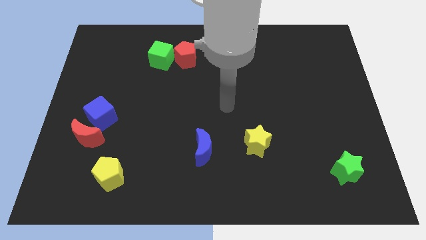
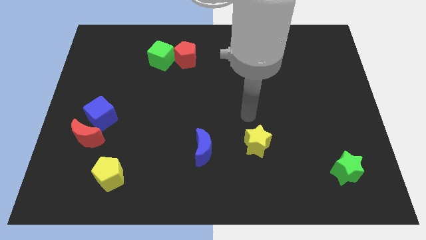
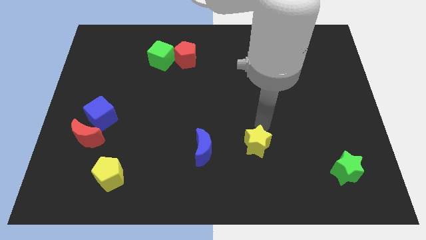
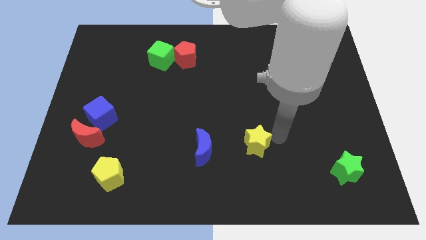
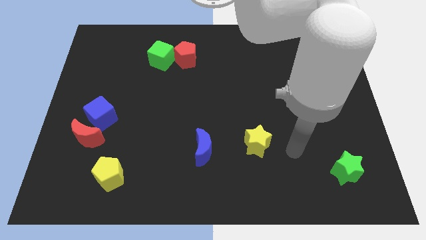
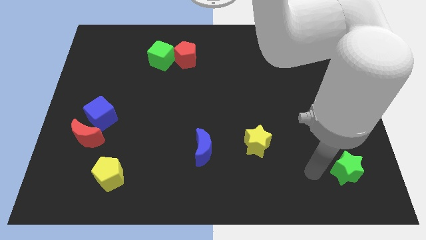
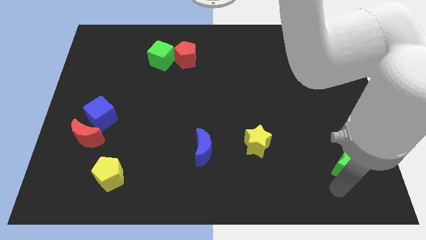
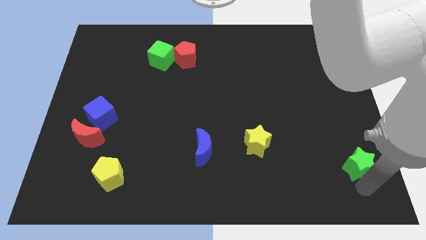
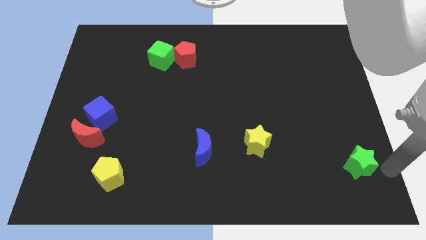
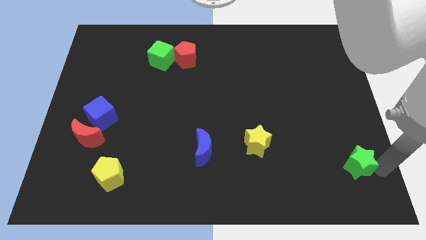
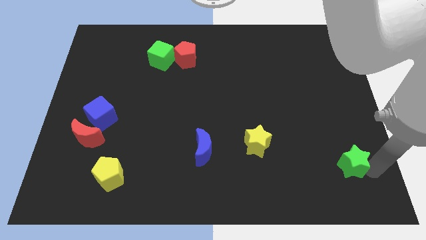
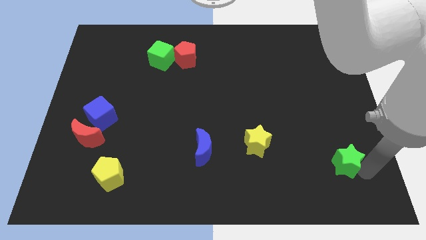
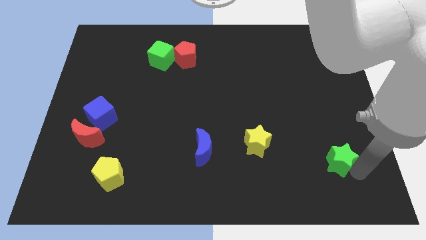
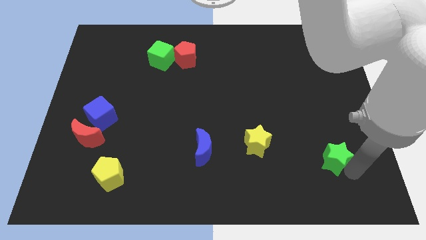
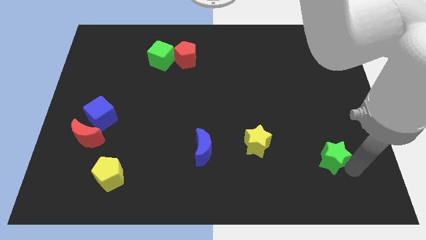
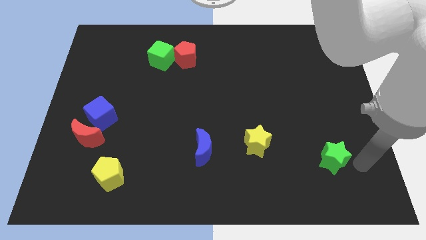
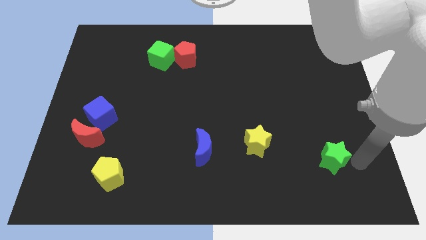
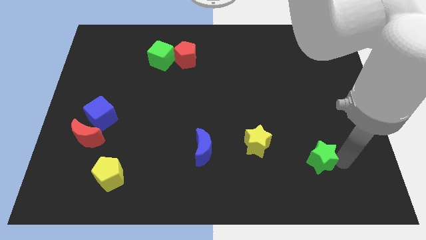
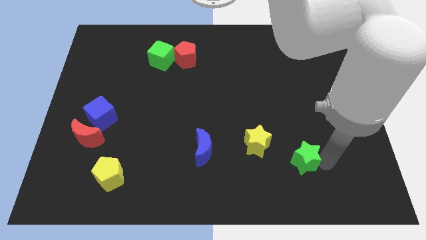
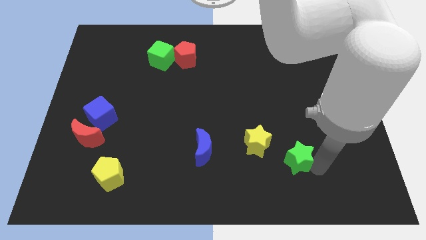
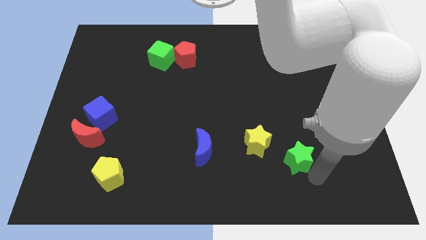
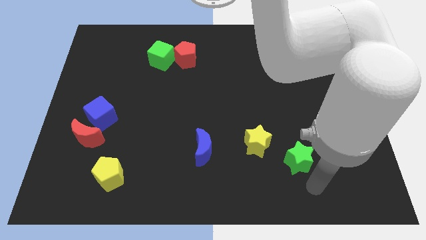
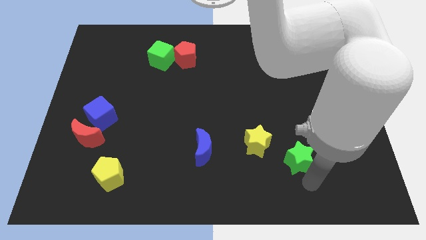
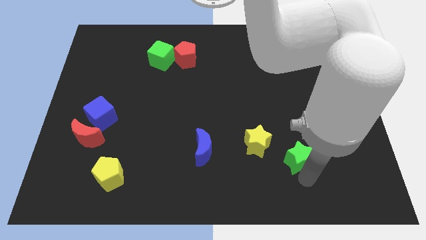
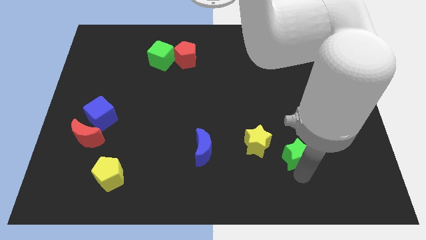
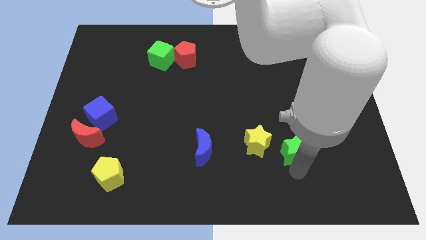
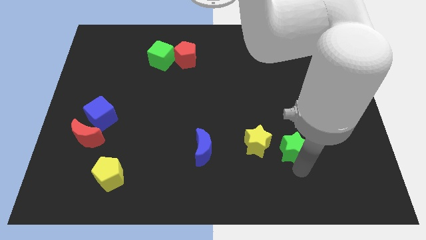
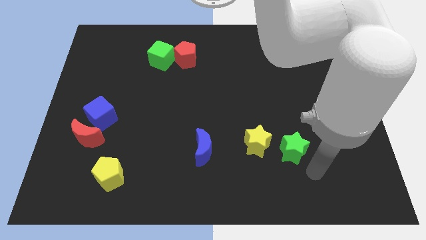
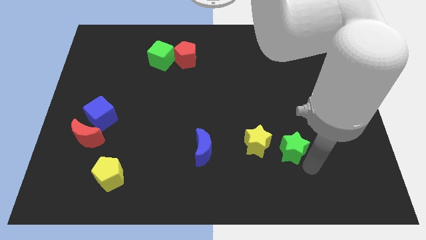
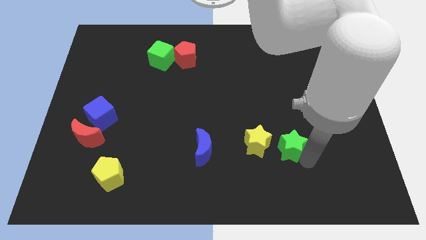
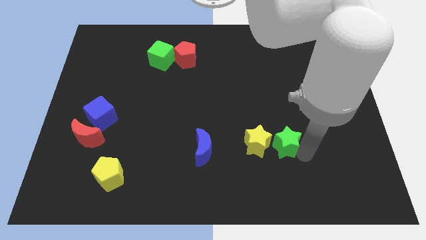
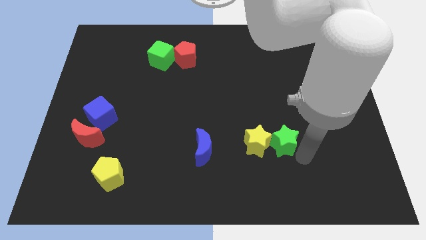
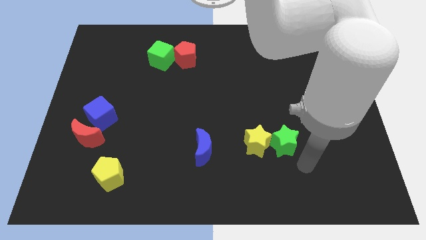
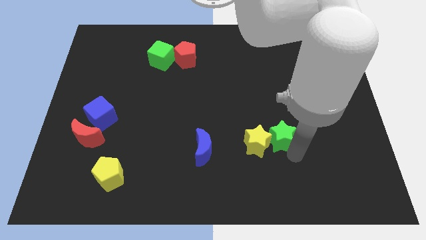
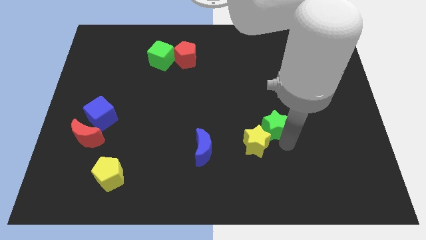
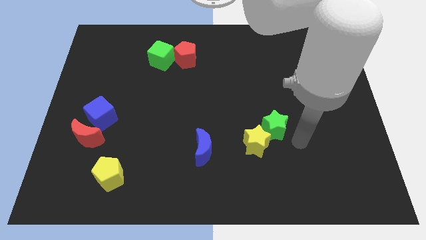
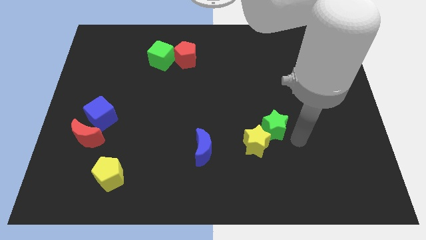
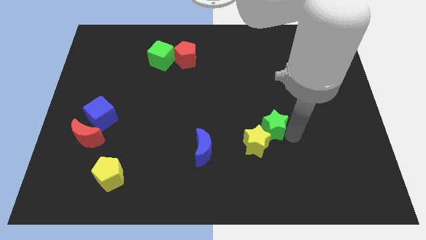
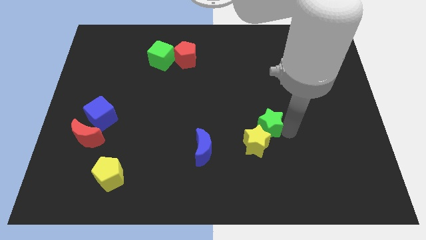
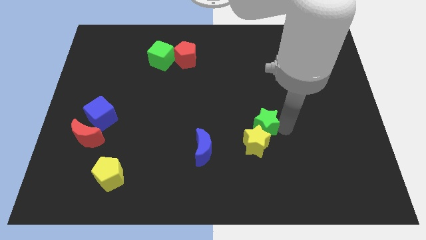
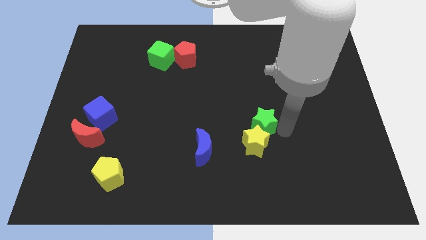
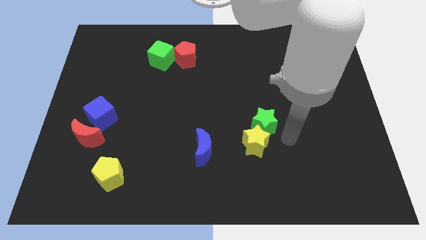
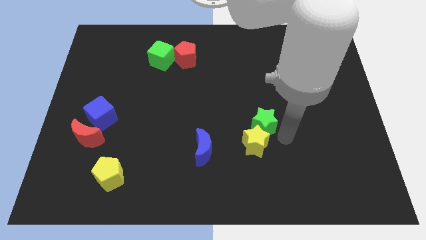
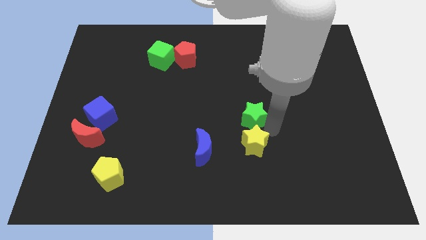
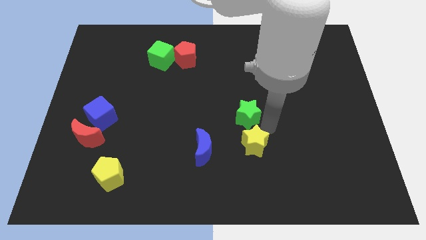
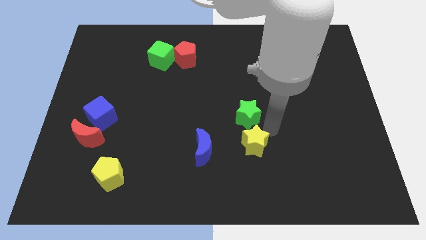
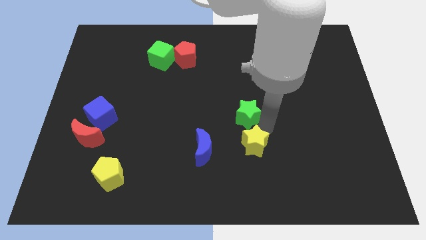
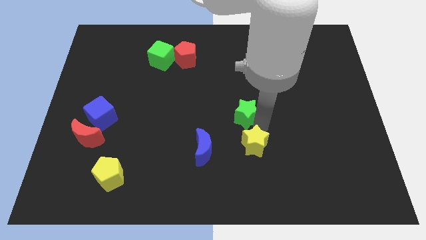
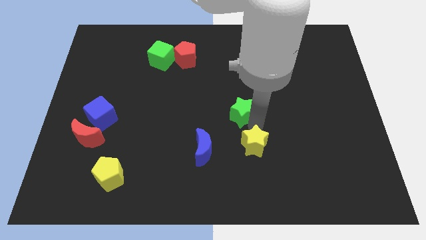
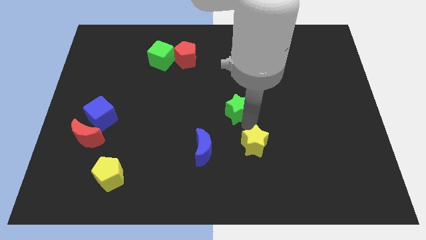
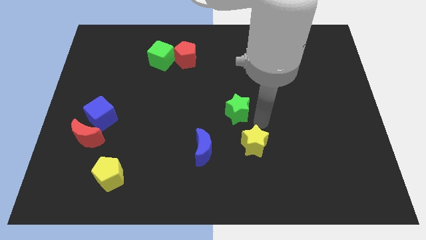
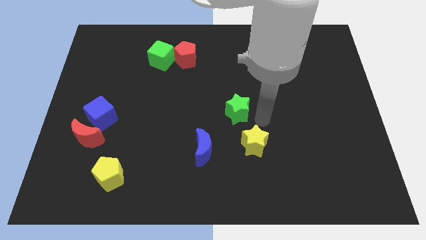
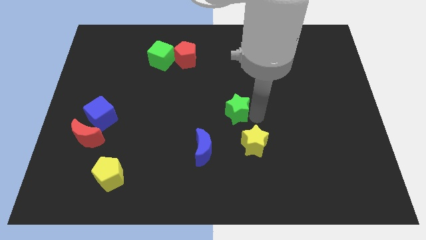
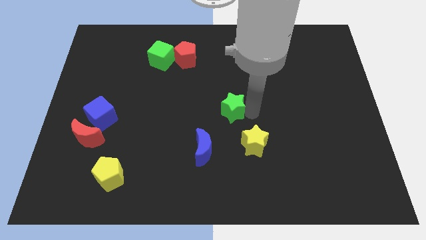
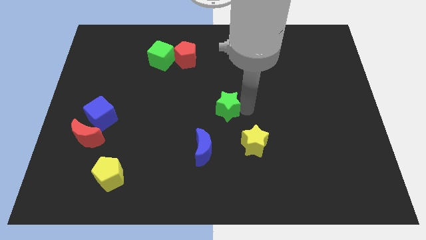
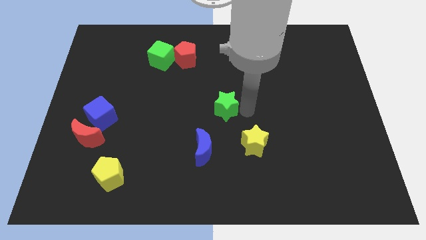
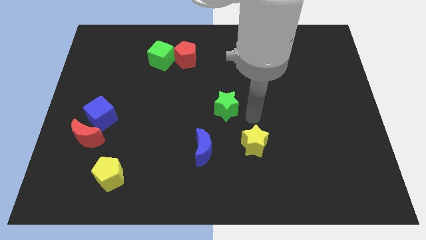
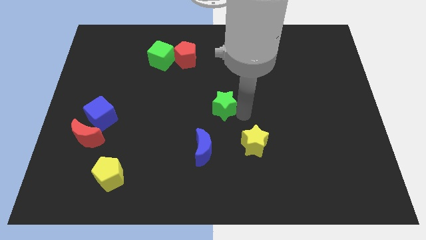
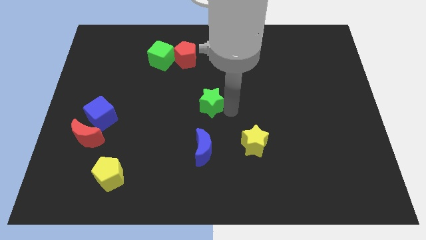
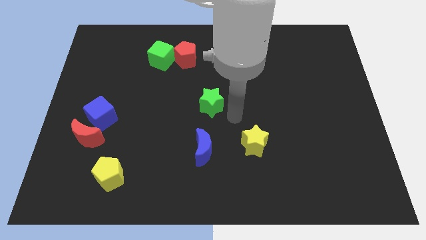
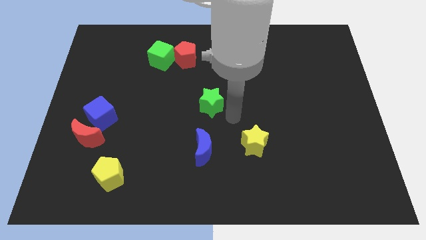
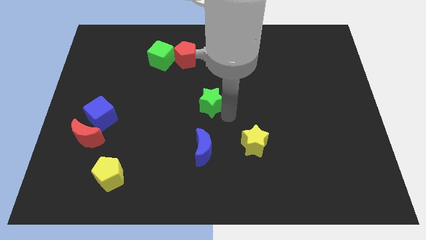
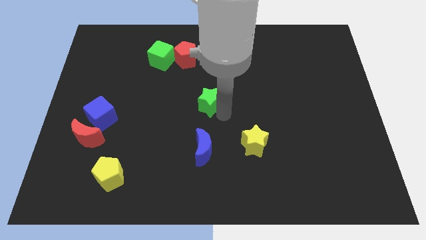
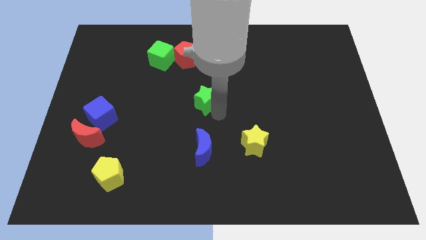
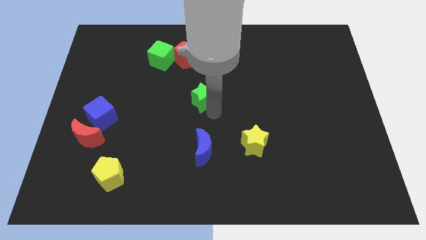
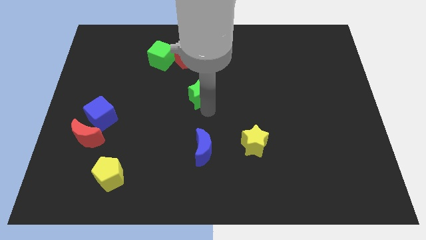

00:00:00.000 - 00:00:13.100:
put the green star to the bottom side of the red pentagon
